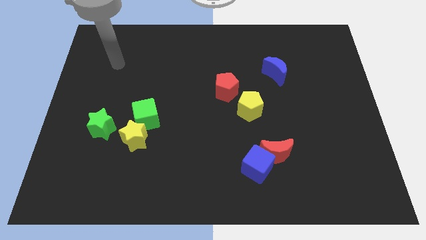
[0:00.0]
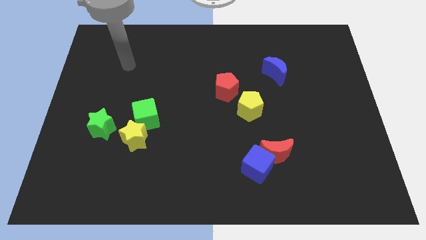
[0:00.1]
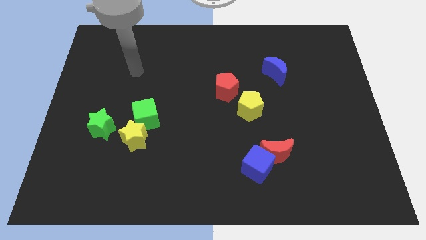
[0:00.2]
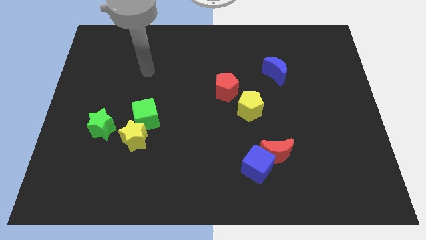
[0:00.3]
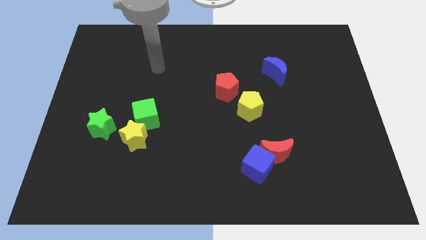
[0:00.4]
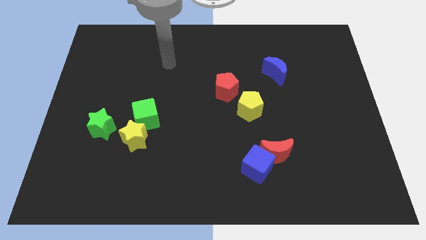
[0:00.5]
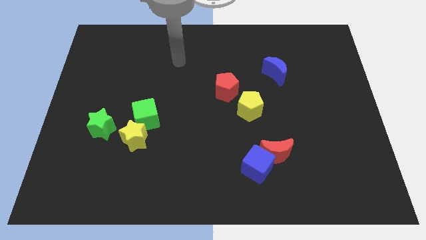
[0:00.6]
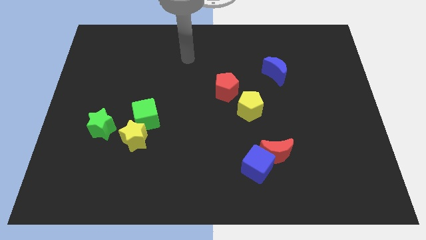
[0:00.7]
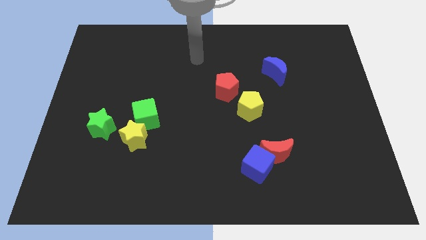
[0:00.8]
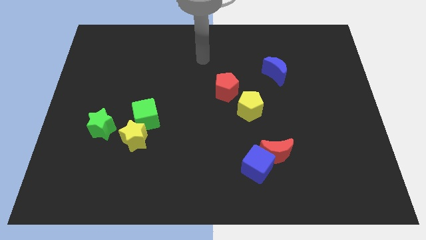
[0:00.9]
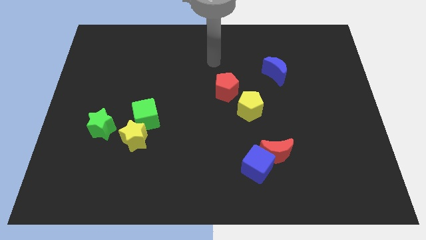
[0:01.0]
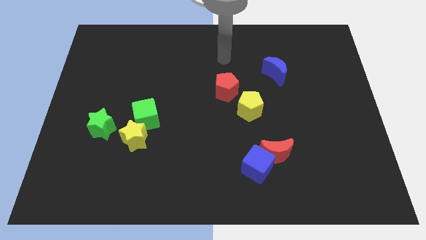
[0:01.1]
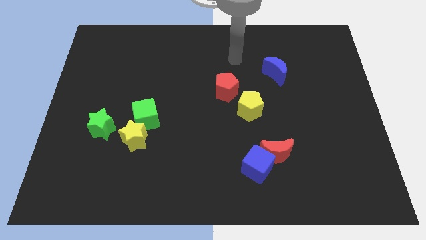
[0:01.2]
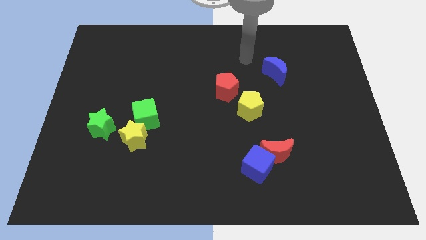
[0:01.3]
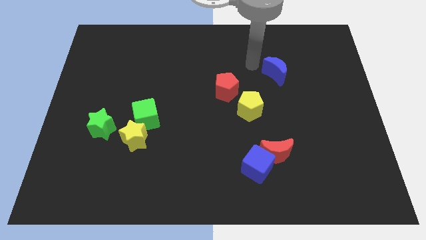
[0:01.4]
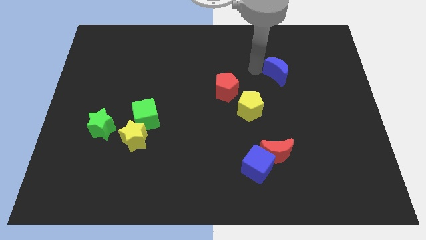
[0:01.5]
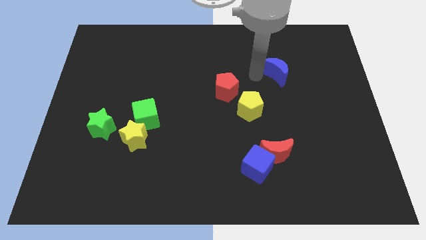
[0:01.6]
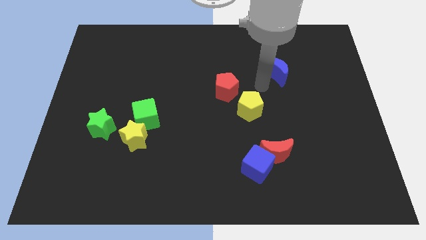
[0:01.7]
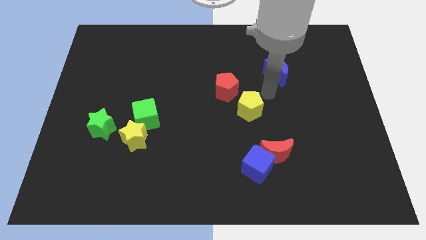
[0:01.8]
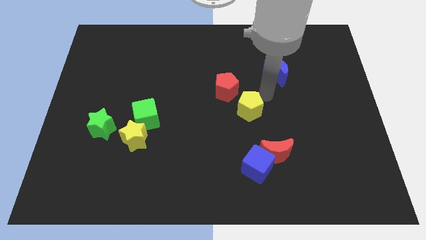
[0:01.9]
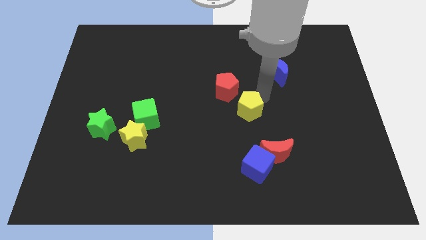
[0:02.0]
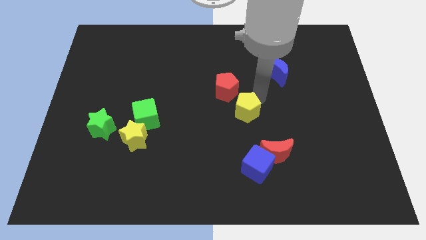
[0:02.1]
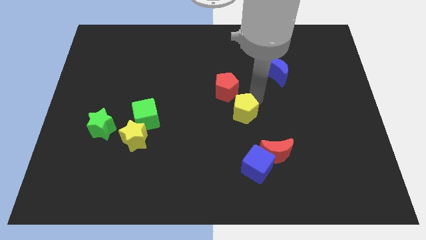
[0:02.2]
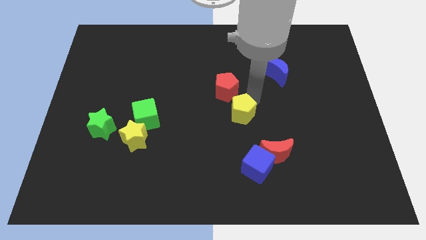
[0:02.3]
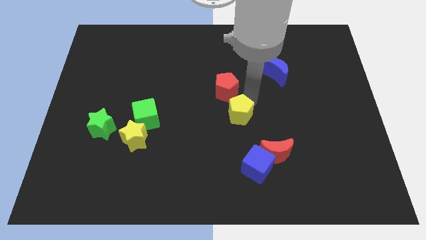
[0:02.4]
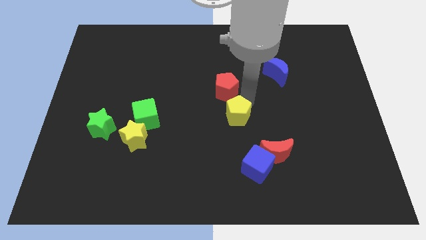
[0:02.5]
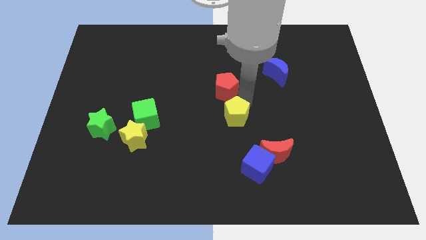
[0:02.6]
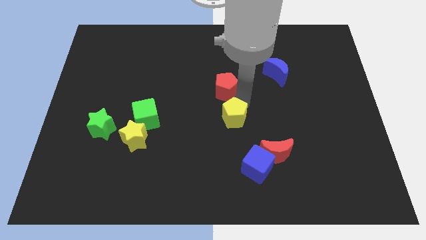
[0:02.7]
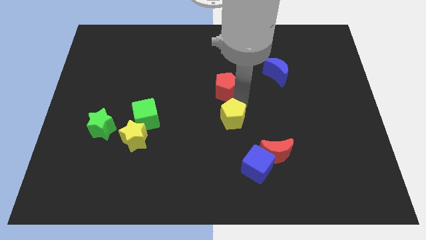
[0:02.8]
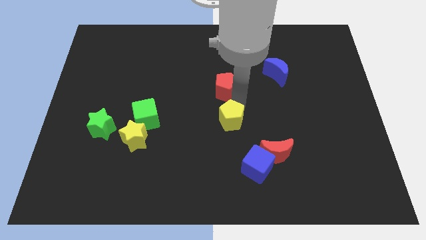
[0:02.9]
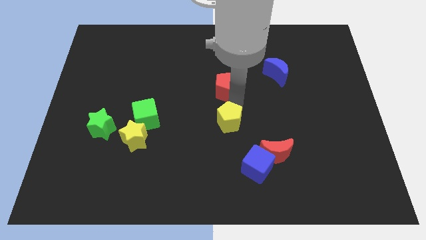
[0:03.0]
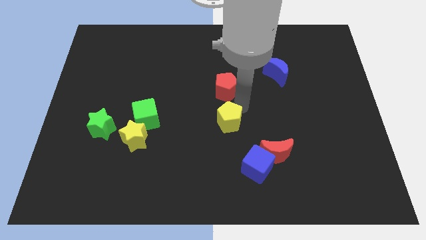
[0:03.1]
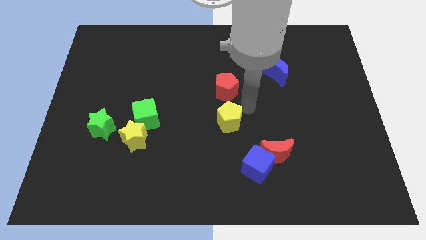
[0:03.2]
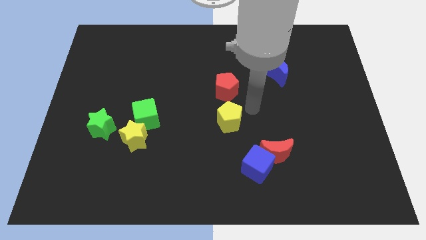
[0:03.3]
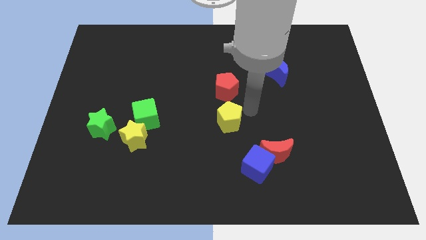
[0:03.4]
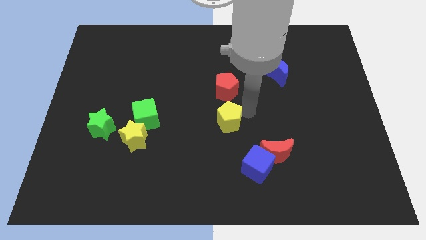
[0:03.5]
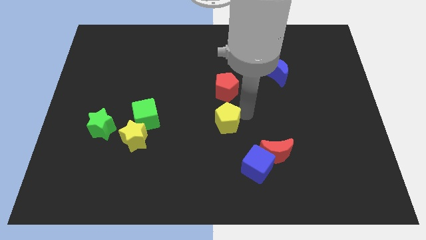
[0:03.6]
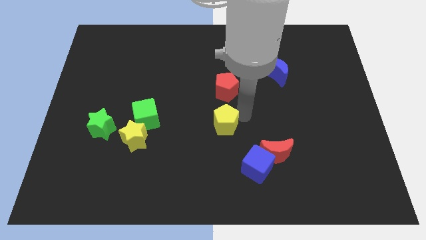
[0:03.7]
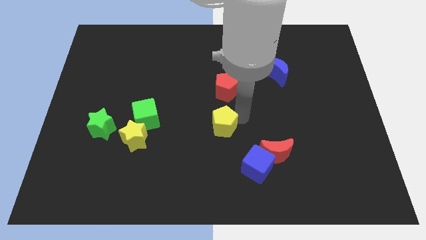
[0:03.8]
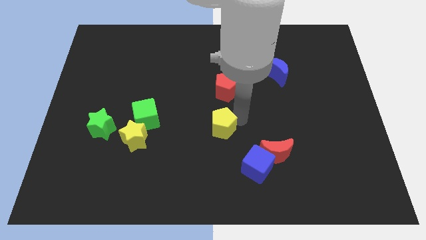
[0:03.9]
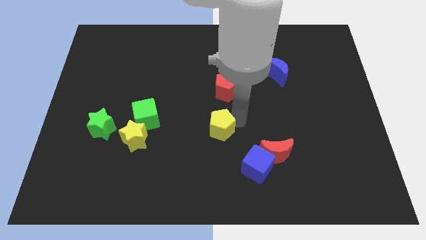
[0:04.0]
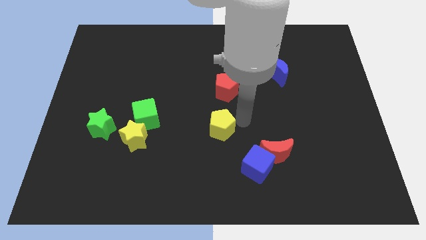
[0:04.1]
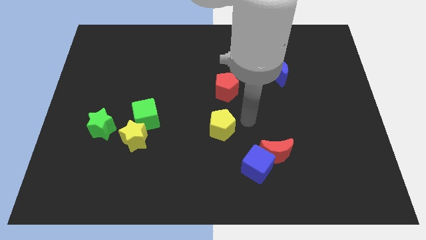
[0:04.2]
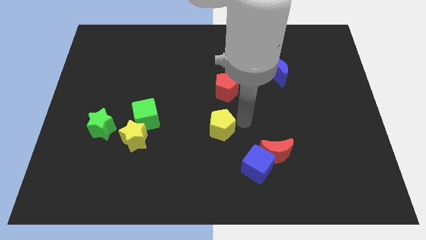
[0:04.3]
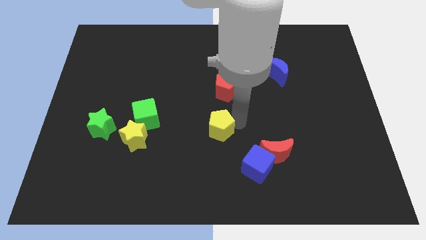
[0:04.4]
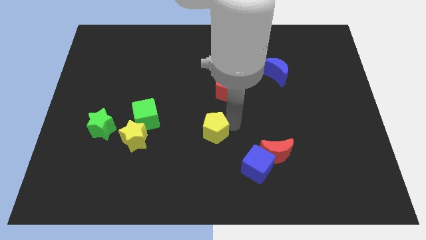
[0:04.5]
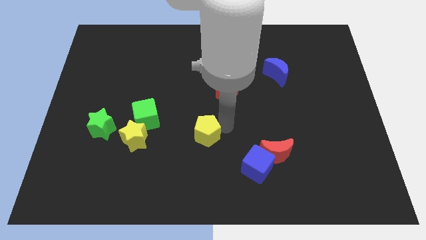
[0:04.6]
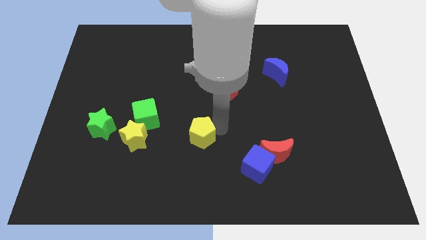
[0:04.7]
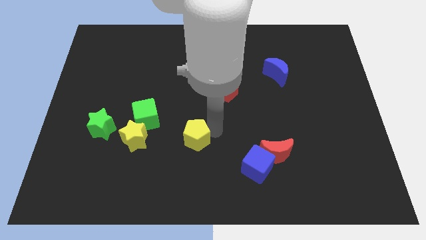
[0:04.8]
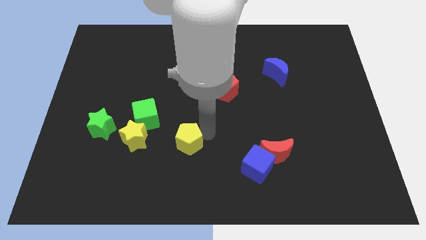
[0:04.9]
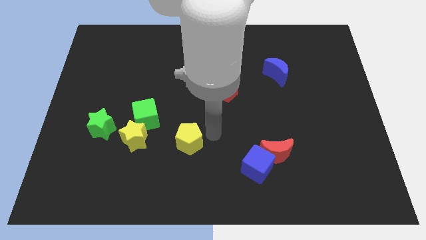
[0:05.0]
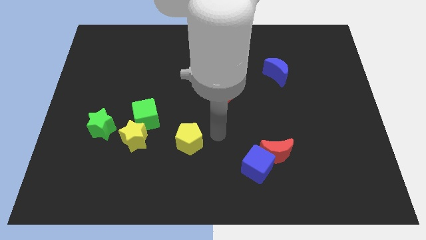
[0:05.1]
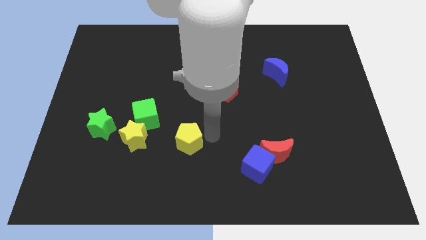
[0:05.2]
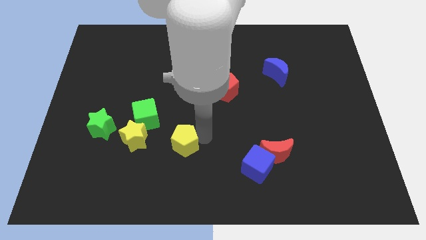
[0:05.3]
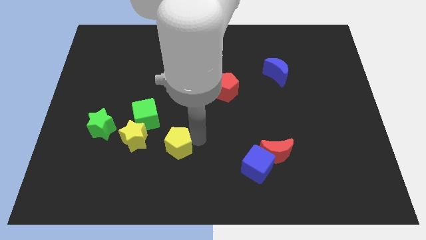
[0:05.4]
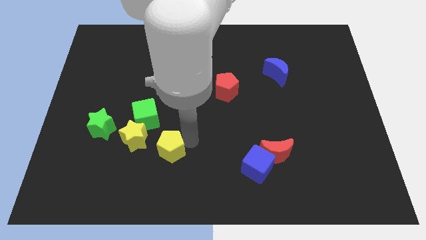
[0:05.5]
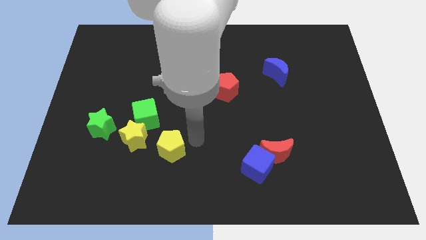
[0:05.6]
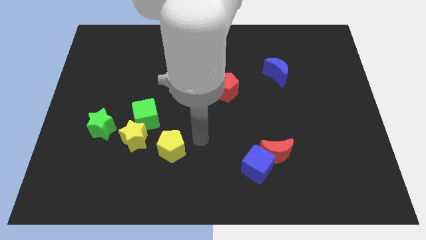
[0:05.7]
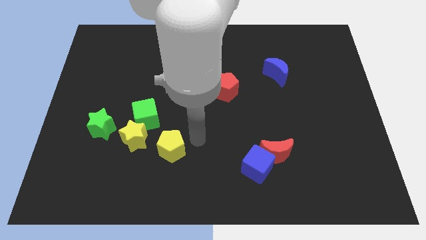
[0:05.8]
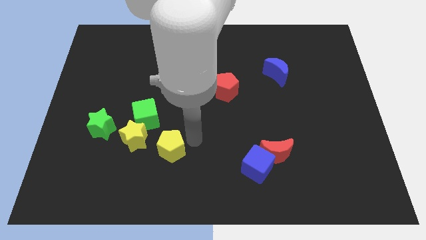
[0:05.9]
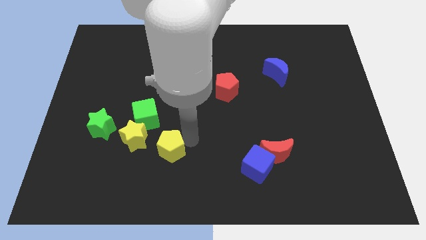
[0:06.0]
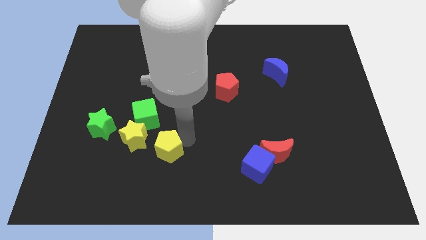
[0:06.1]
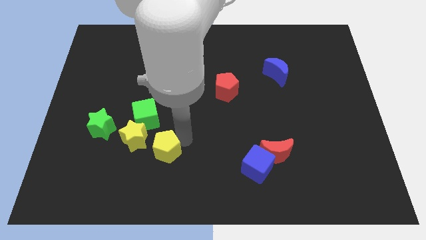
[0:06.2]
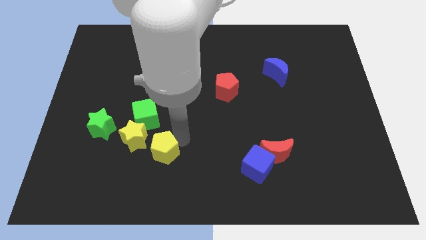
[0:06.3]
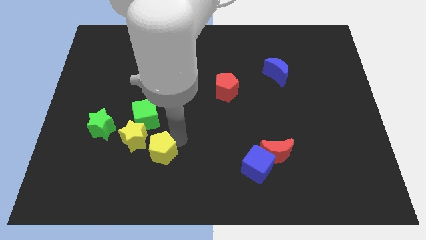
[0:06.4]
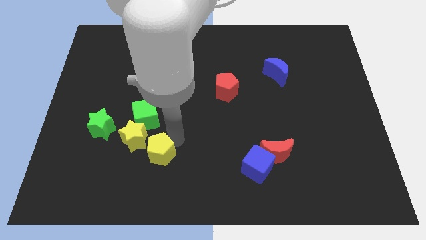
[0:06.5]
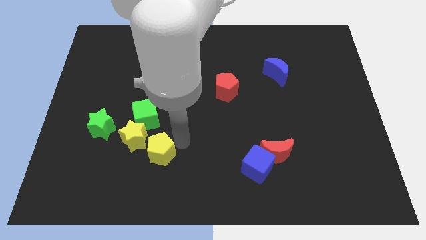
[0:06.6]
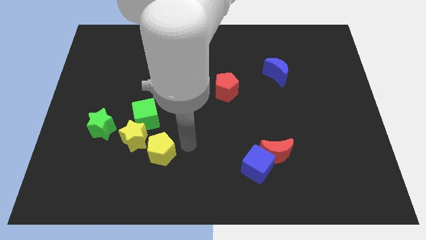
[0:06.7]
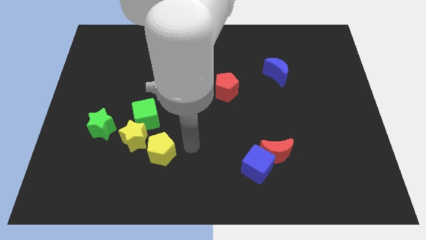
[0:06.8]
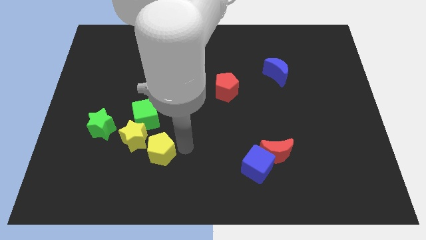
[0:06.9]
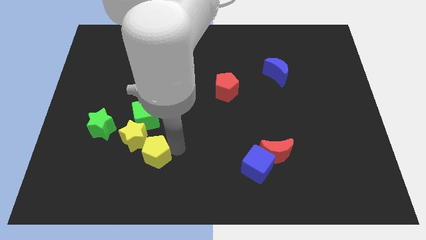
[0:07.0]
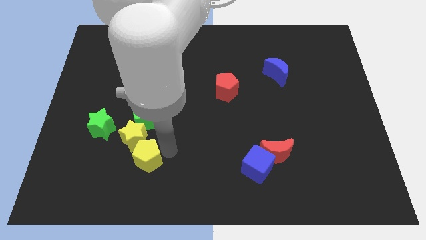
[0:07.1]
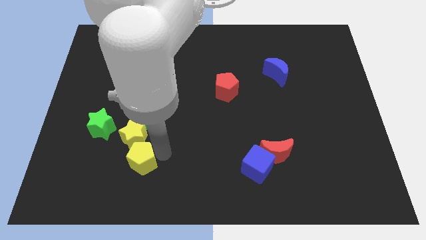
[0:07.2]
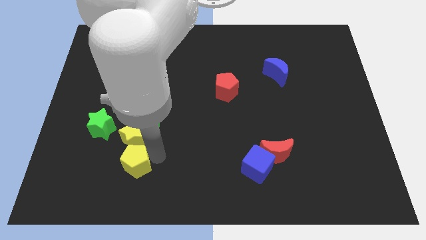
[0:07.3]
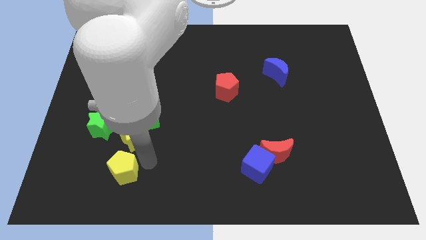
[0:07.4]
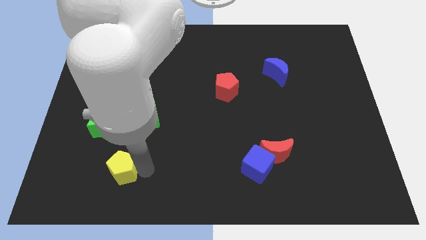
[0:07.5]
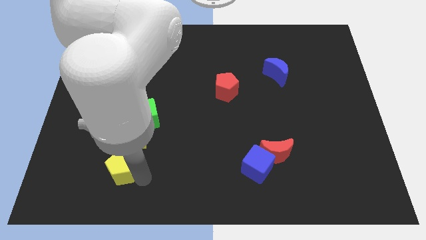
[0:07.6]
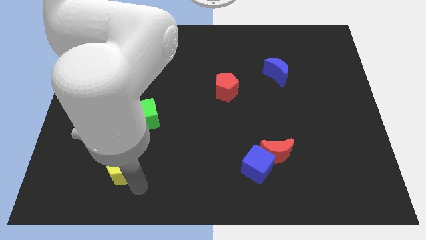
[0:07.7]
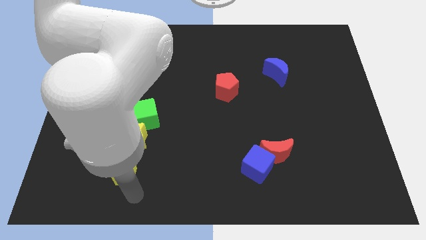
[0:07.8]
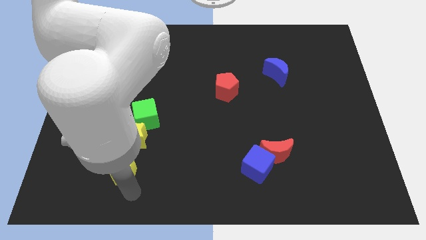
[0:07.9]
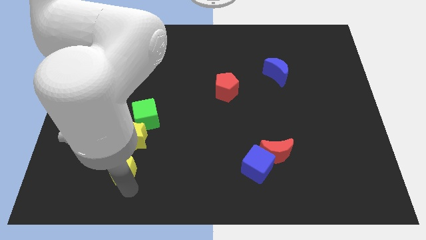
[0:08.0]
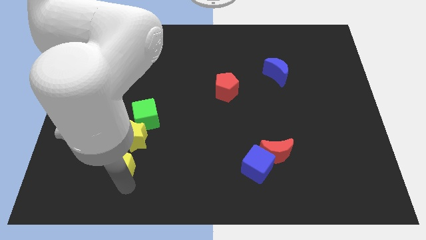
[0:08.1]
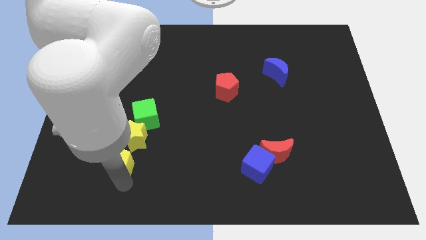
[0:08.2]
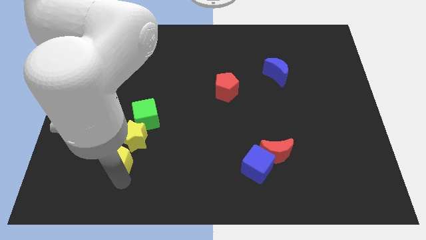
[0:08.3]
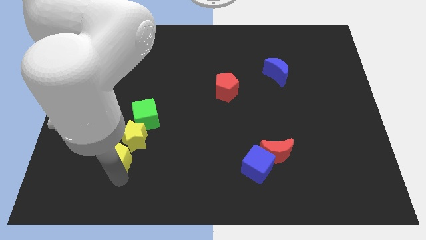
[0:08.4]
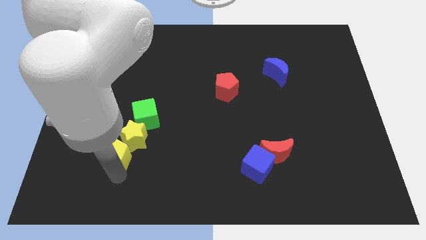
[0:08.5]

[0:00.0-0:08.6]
push the yellow pentagon to the left side of the yellow star
